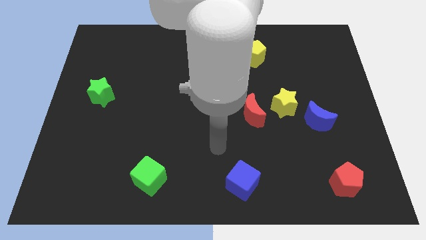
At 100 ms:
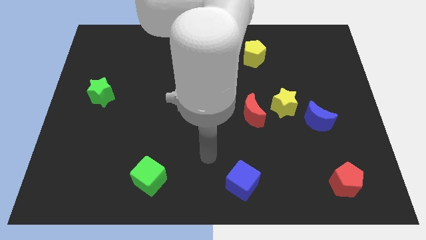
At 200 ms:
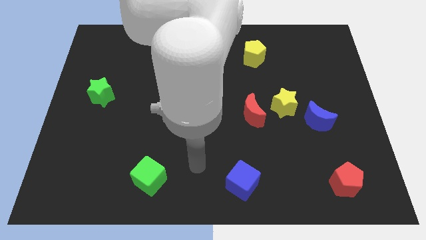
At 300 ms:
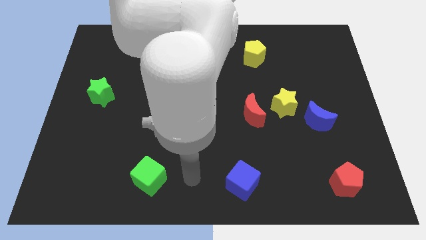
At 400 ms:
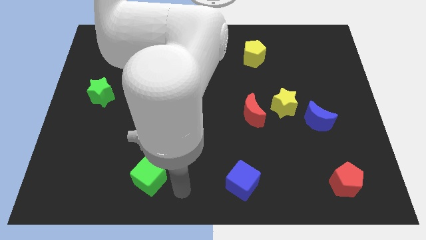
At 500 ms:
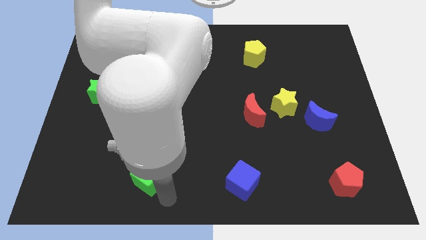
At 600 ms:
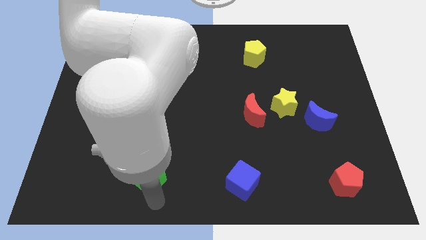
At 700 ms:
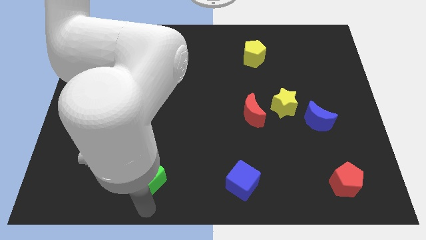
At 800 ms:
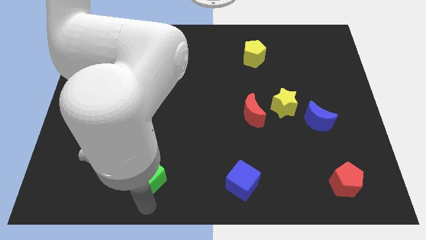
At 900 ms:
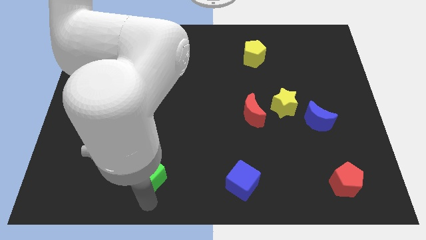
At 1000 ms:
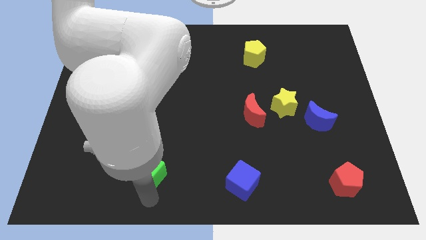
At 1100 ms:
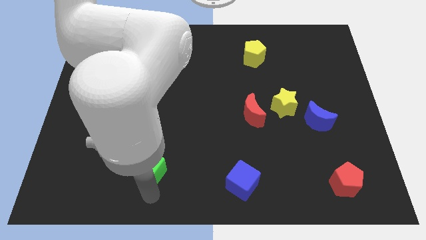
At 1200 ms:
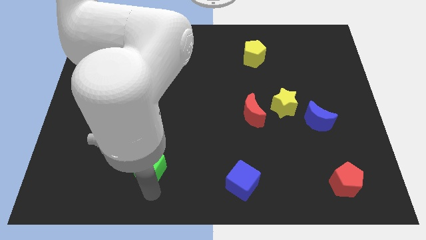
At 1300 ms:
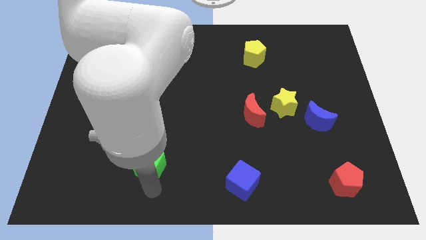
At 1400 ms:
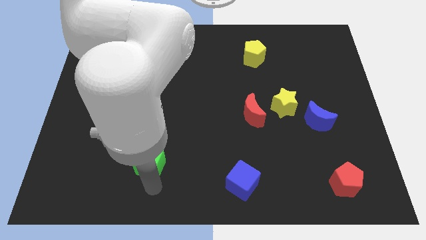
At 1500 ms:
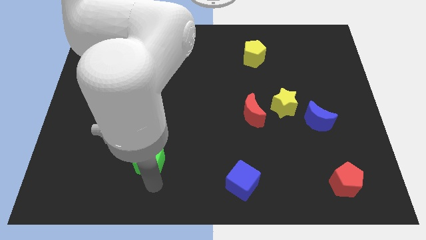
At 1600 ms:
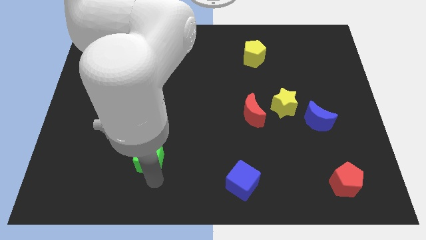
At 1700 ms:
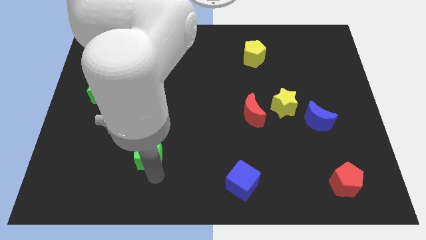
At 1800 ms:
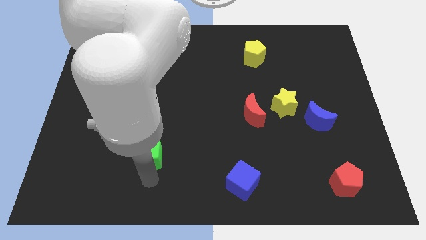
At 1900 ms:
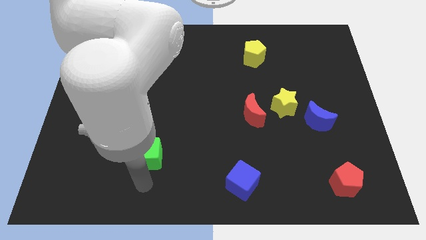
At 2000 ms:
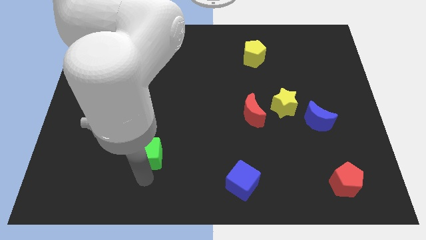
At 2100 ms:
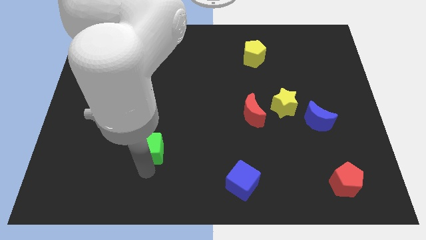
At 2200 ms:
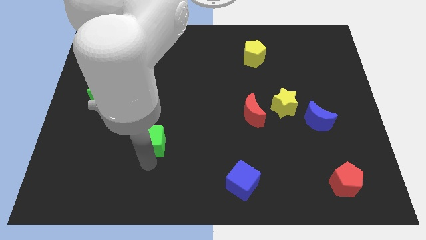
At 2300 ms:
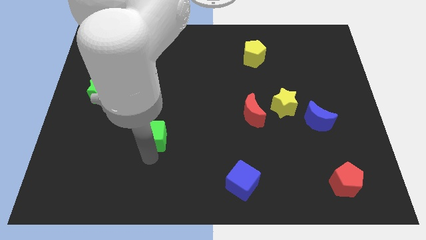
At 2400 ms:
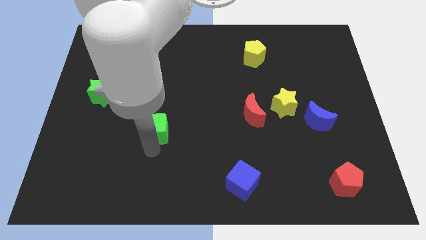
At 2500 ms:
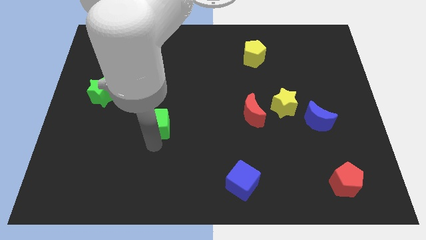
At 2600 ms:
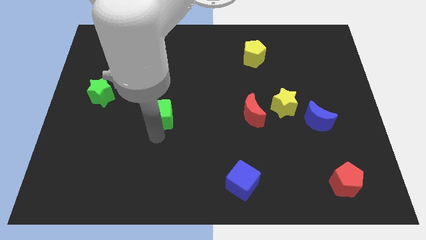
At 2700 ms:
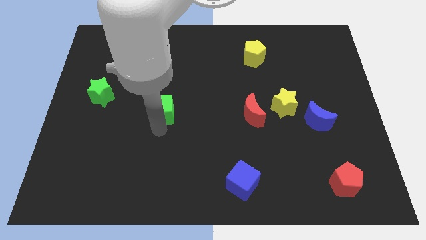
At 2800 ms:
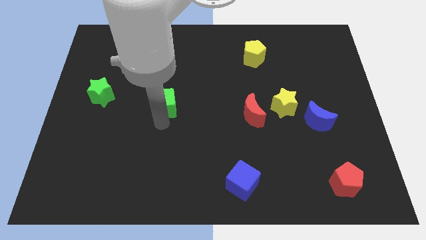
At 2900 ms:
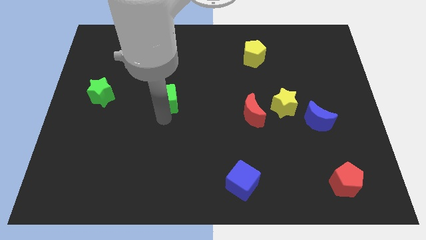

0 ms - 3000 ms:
slide the green cube up

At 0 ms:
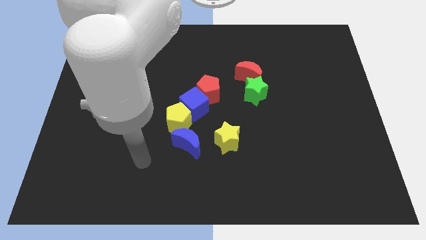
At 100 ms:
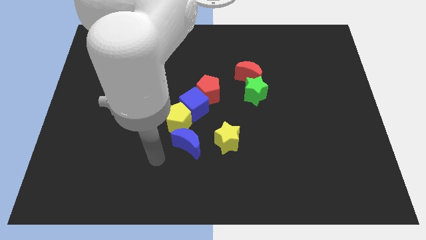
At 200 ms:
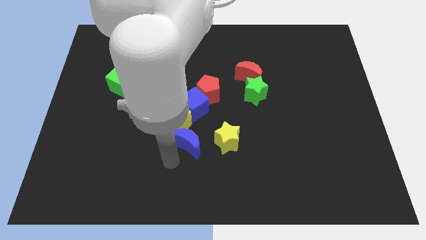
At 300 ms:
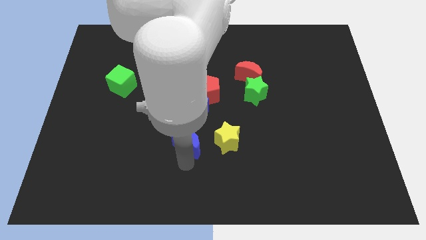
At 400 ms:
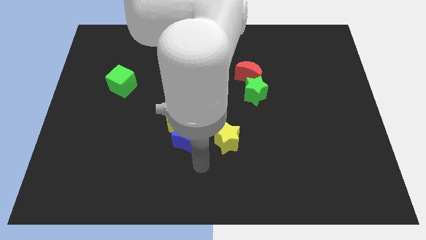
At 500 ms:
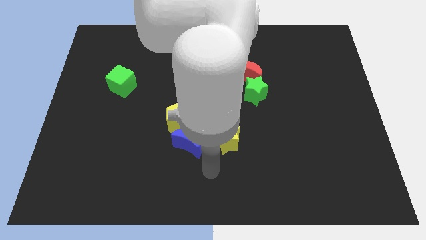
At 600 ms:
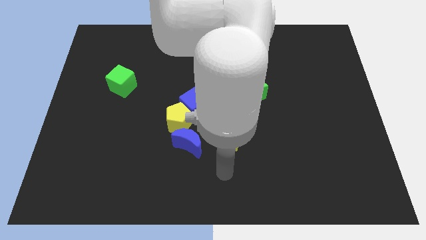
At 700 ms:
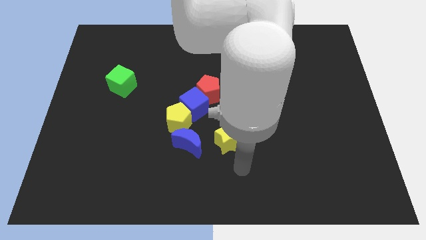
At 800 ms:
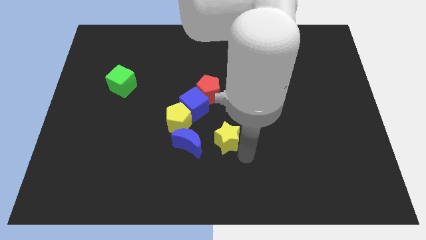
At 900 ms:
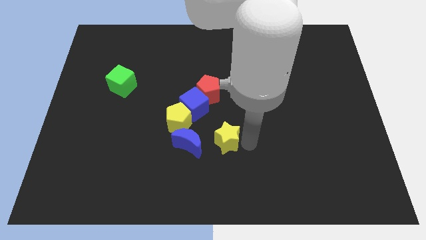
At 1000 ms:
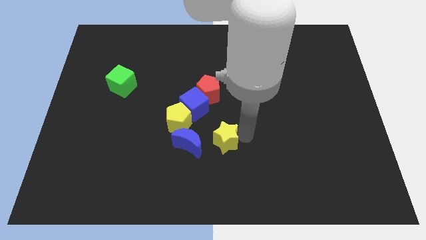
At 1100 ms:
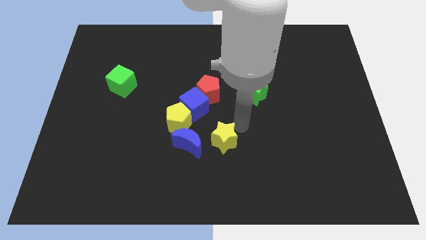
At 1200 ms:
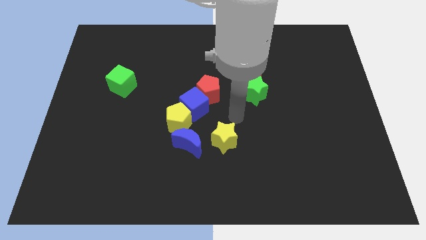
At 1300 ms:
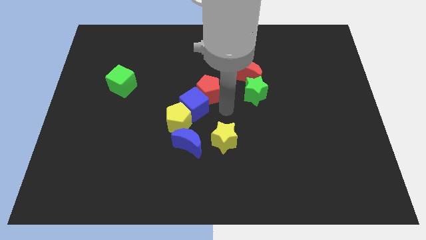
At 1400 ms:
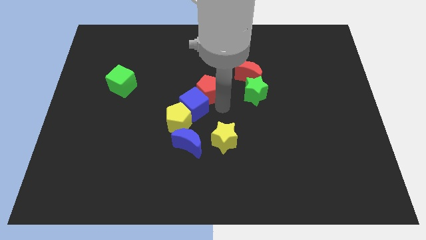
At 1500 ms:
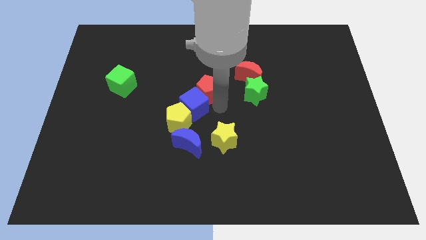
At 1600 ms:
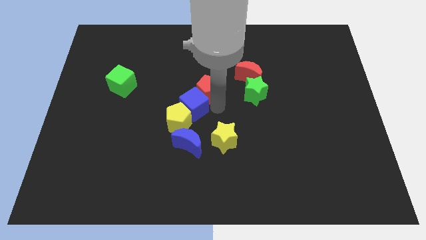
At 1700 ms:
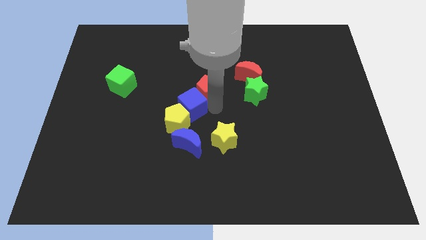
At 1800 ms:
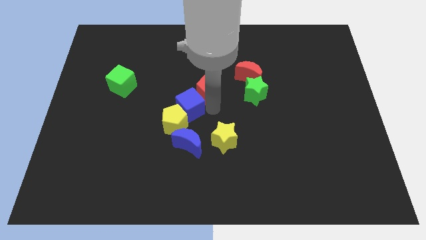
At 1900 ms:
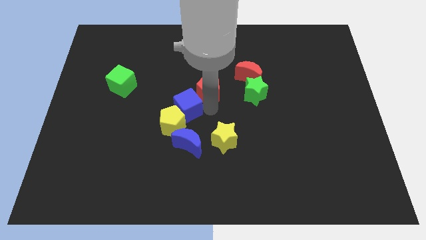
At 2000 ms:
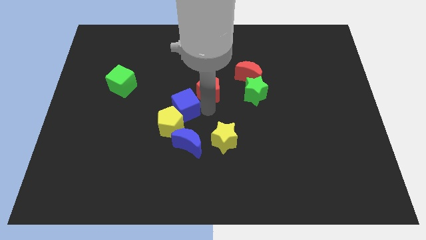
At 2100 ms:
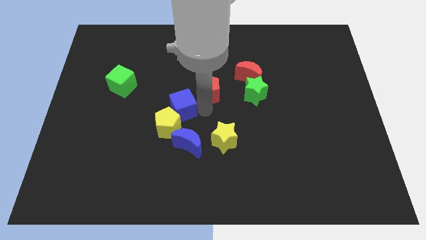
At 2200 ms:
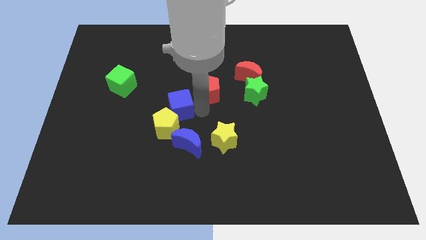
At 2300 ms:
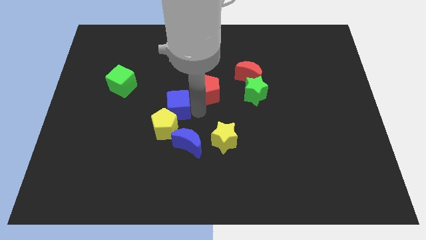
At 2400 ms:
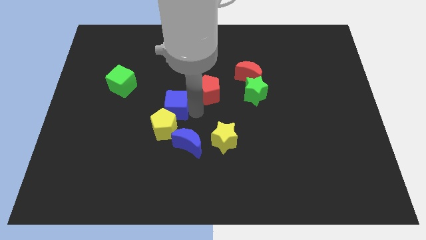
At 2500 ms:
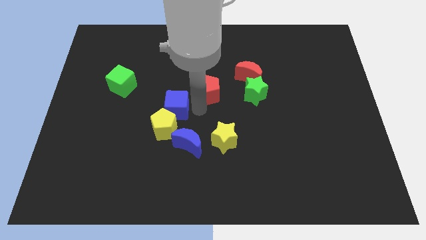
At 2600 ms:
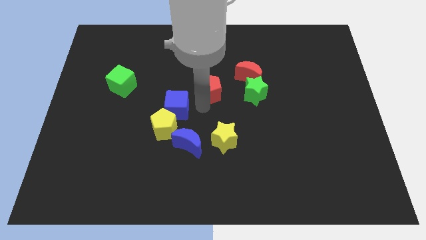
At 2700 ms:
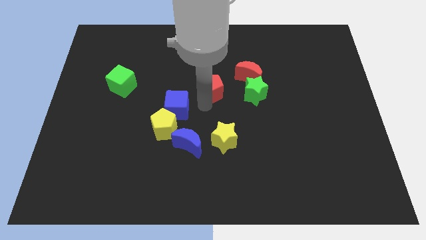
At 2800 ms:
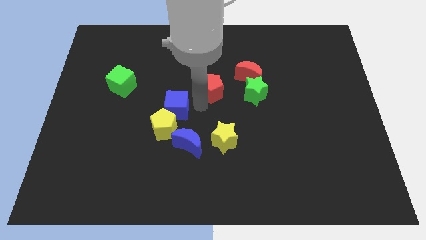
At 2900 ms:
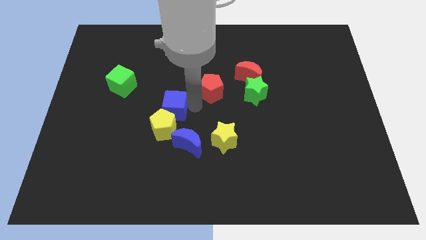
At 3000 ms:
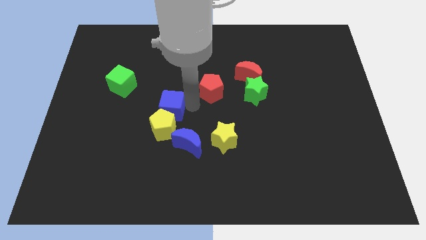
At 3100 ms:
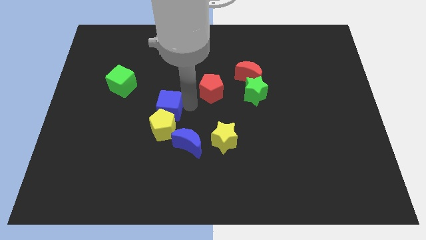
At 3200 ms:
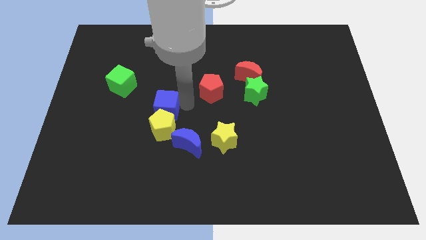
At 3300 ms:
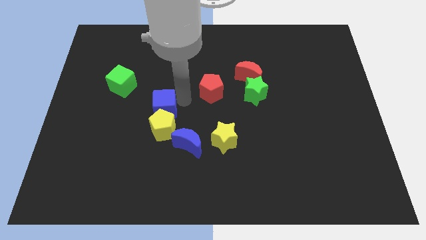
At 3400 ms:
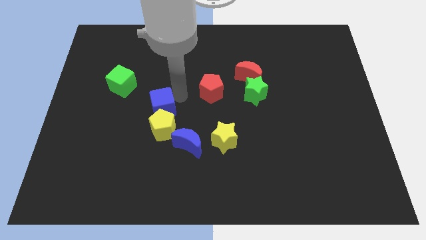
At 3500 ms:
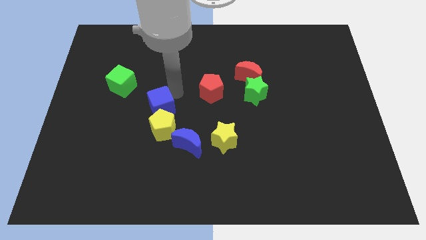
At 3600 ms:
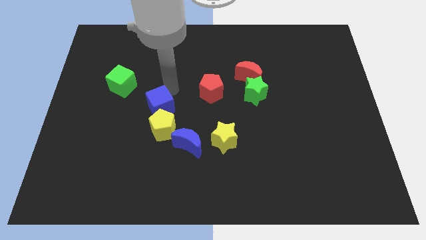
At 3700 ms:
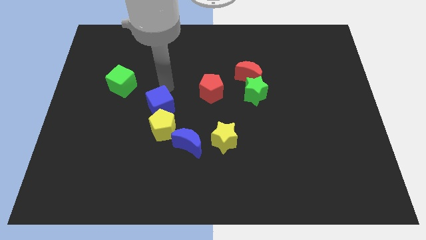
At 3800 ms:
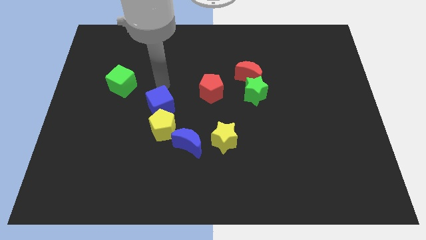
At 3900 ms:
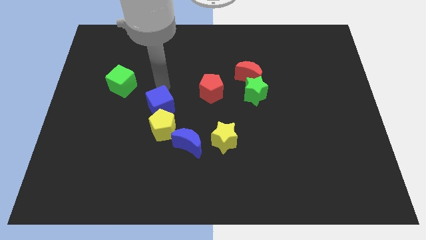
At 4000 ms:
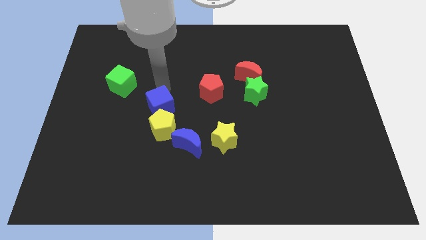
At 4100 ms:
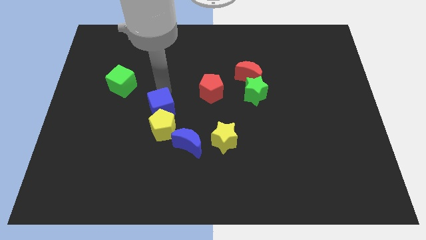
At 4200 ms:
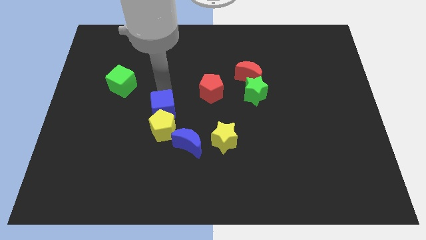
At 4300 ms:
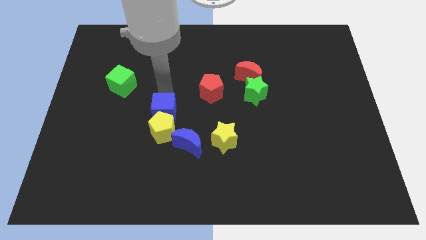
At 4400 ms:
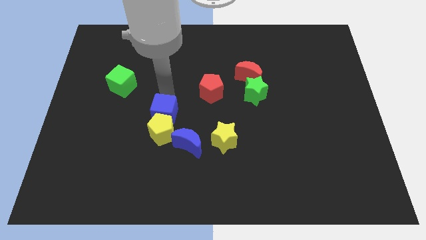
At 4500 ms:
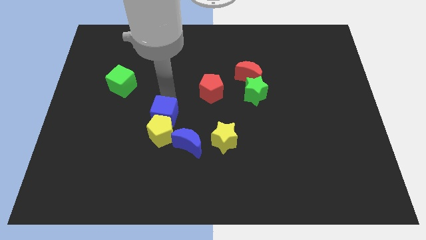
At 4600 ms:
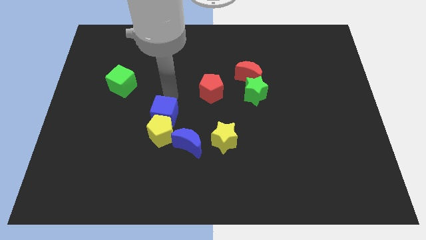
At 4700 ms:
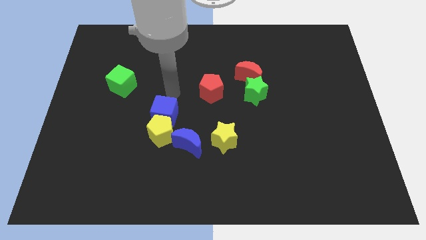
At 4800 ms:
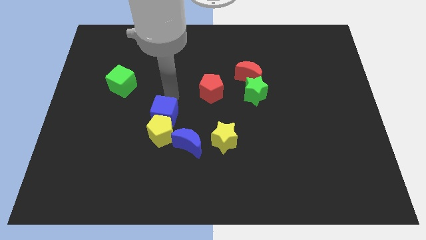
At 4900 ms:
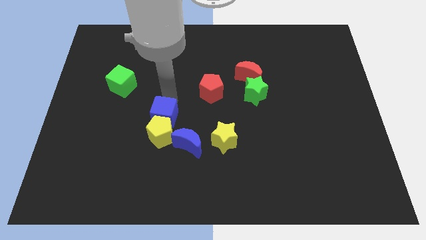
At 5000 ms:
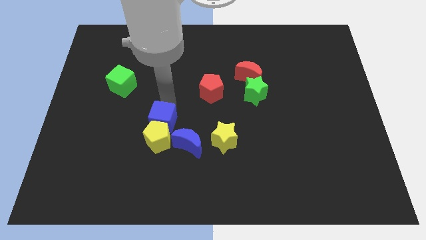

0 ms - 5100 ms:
move the blue cube down and then to the left somewhat
